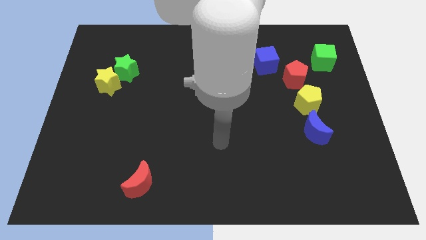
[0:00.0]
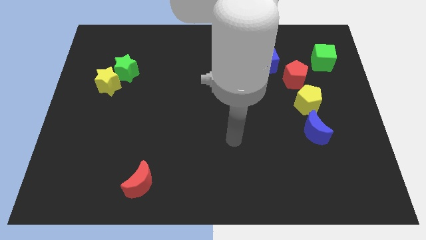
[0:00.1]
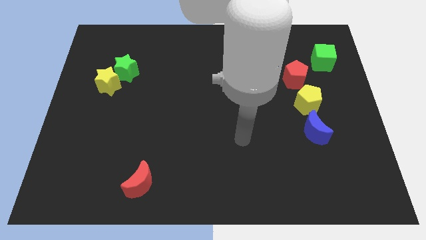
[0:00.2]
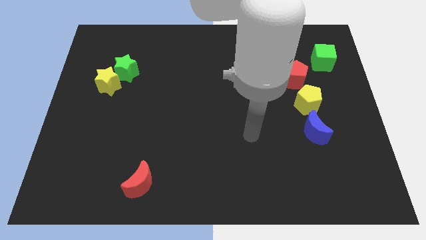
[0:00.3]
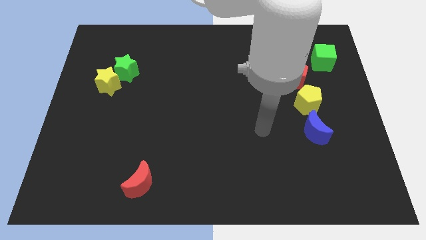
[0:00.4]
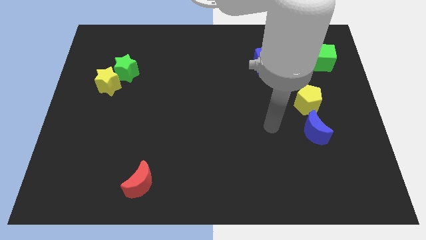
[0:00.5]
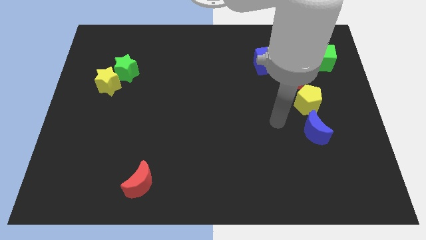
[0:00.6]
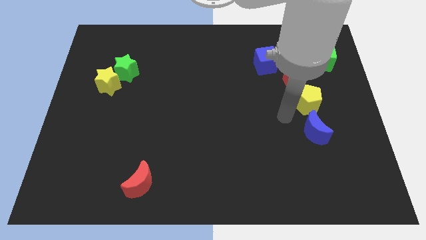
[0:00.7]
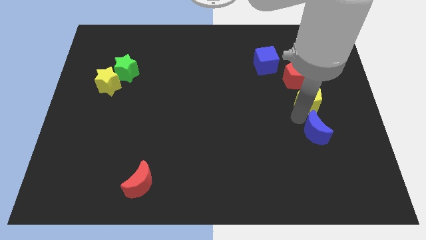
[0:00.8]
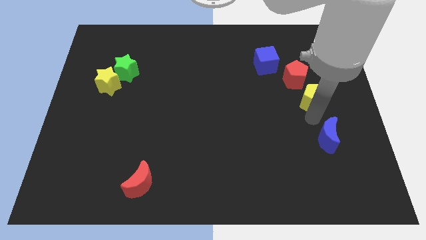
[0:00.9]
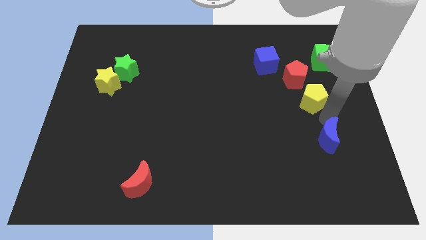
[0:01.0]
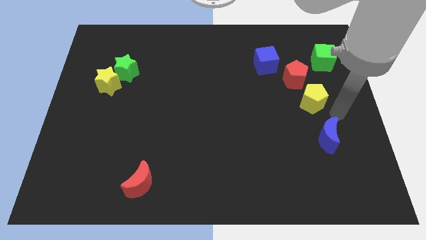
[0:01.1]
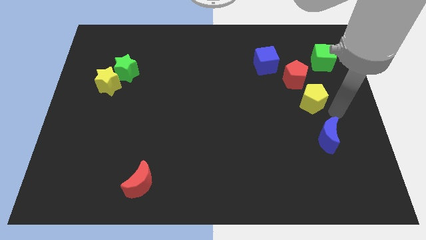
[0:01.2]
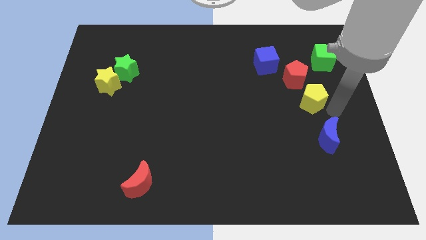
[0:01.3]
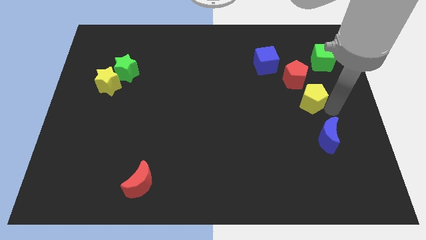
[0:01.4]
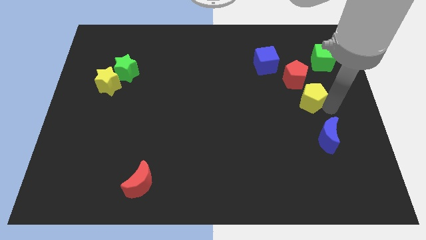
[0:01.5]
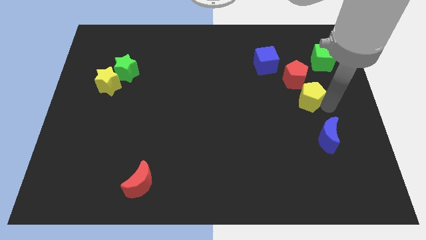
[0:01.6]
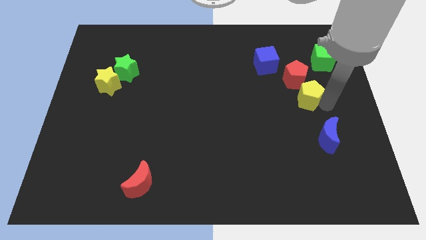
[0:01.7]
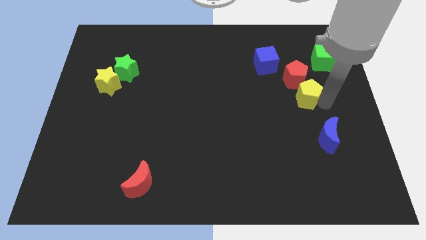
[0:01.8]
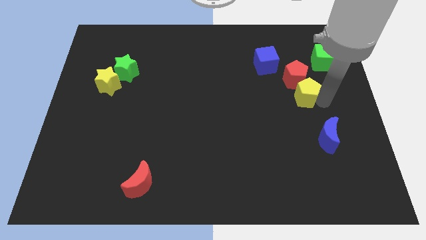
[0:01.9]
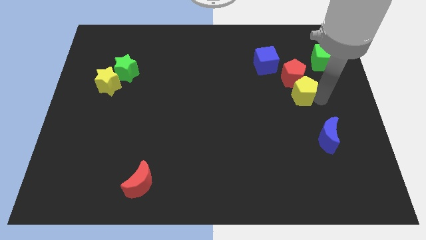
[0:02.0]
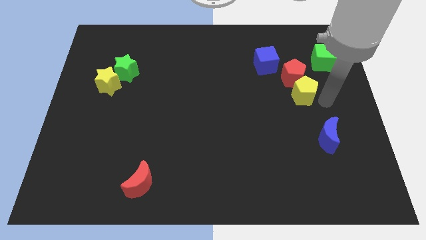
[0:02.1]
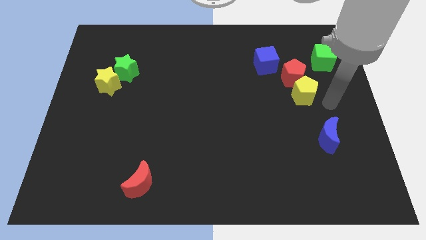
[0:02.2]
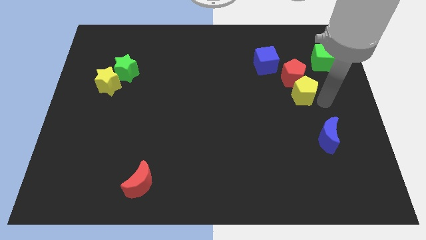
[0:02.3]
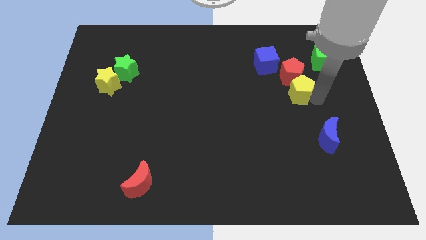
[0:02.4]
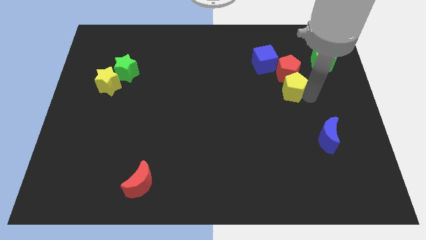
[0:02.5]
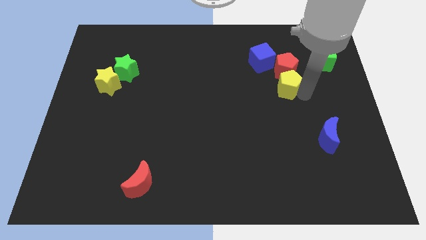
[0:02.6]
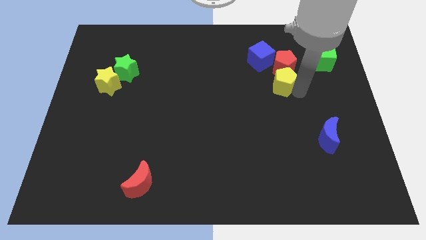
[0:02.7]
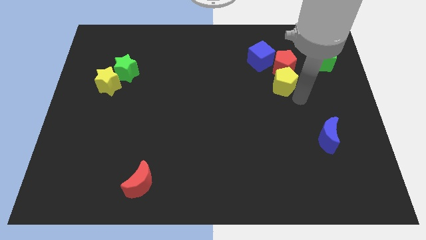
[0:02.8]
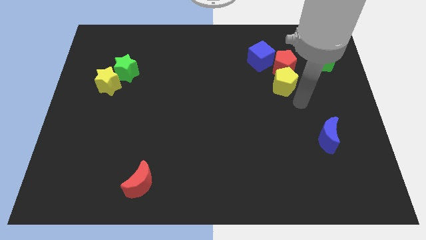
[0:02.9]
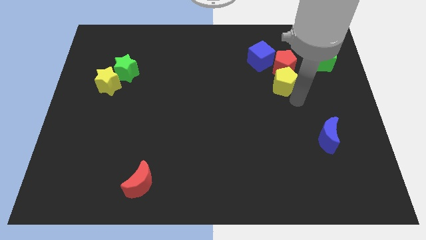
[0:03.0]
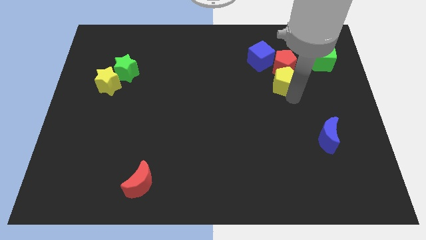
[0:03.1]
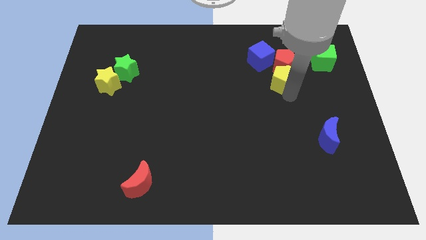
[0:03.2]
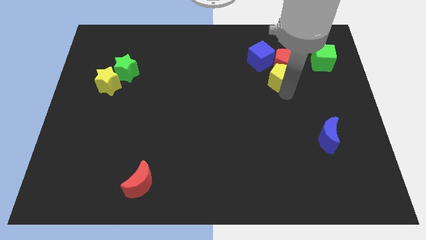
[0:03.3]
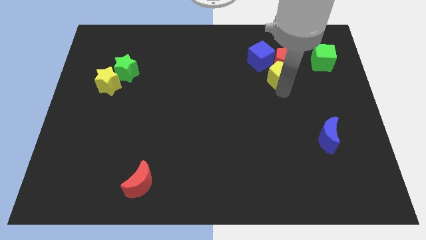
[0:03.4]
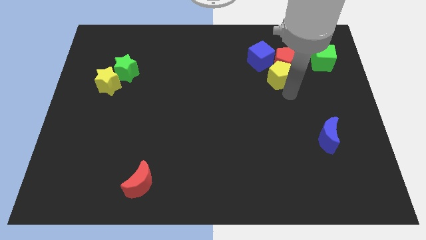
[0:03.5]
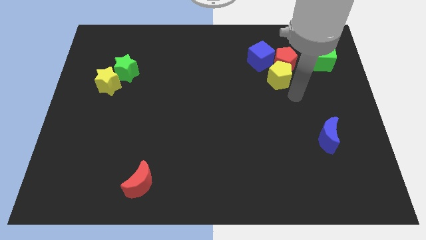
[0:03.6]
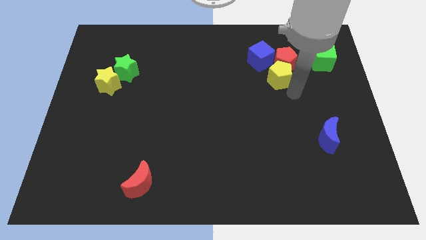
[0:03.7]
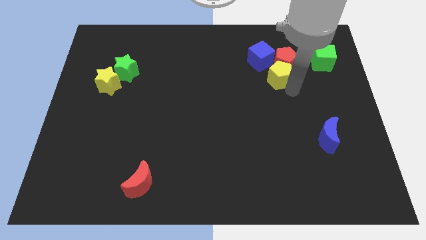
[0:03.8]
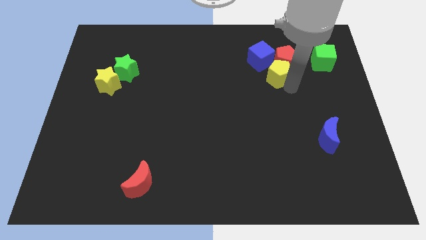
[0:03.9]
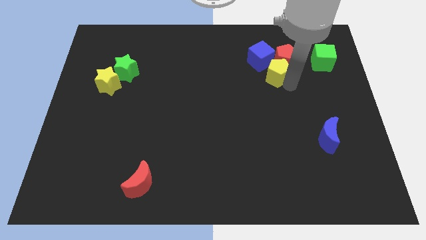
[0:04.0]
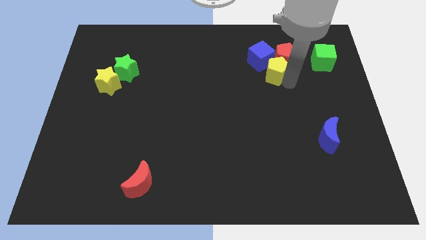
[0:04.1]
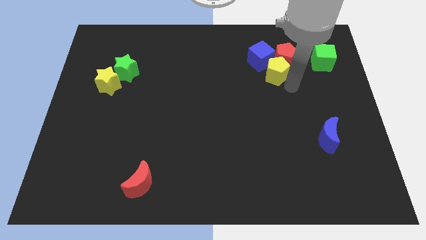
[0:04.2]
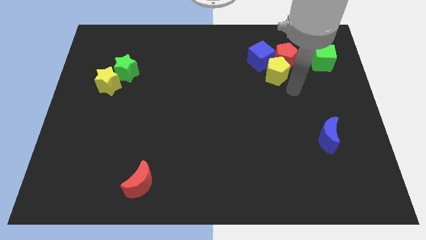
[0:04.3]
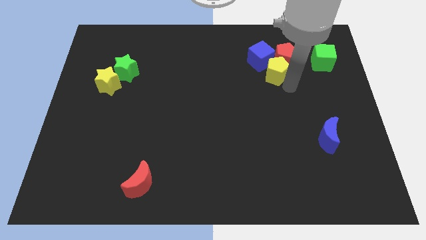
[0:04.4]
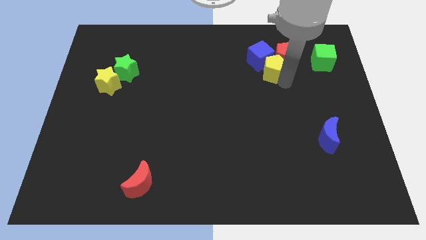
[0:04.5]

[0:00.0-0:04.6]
slide the yellow pentagon next to the blue cube

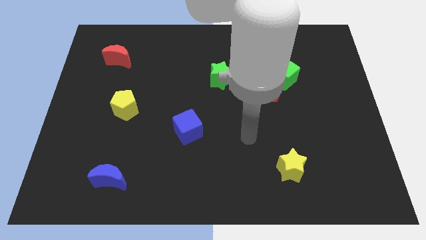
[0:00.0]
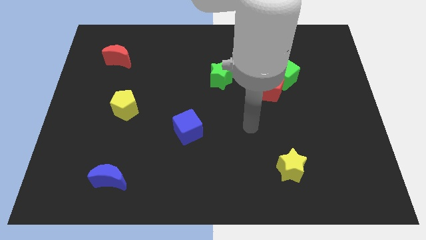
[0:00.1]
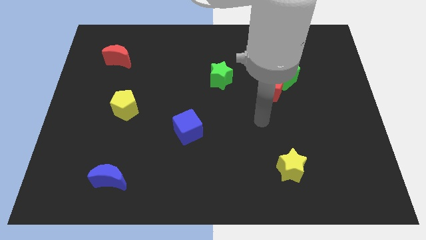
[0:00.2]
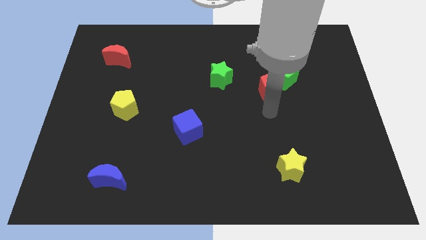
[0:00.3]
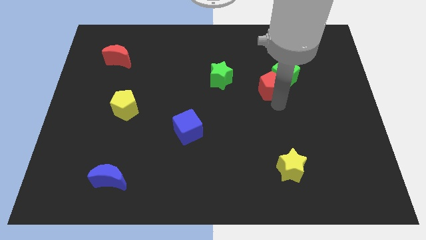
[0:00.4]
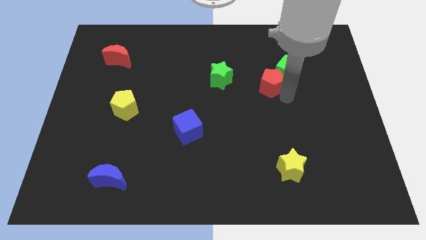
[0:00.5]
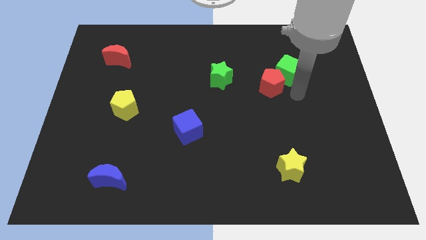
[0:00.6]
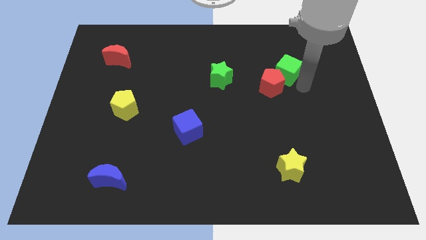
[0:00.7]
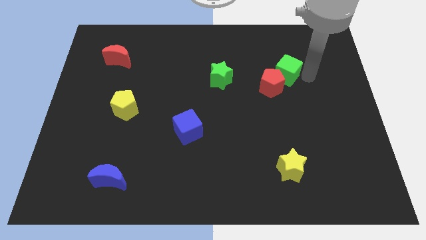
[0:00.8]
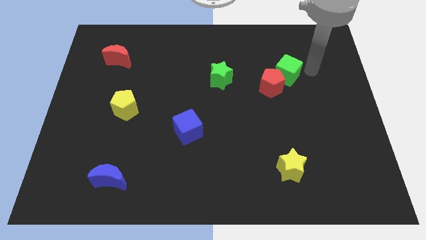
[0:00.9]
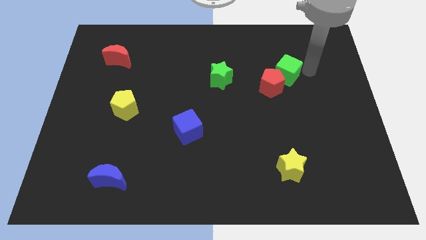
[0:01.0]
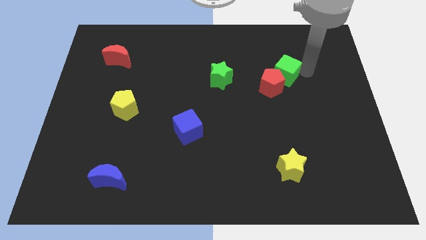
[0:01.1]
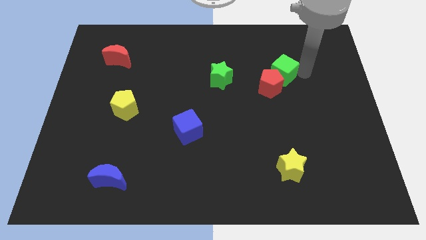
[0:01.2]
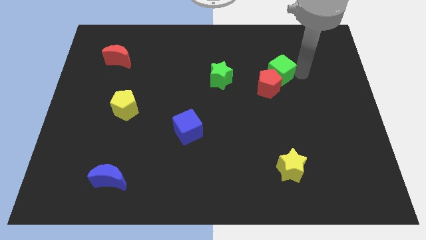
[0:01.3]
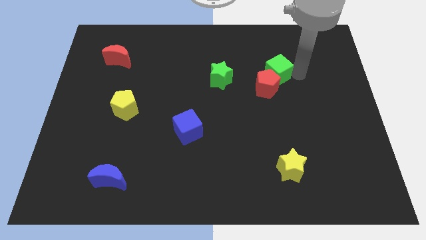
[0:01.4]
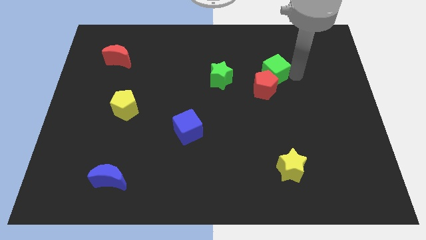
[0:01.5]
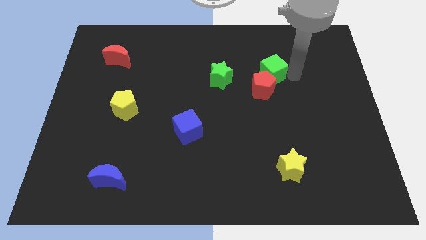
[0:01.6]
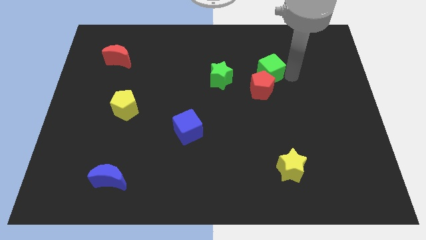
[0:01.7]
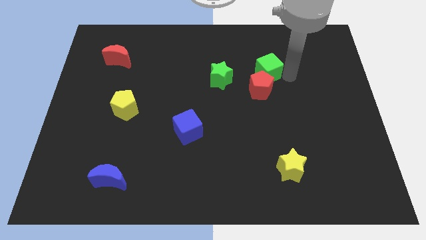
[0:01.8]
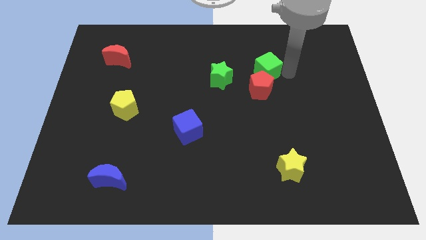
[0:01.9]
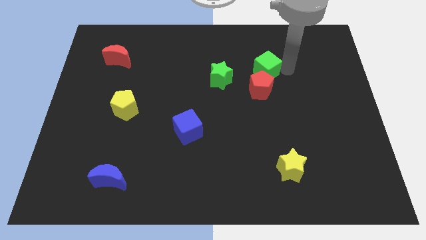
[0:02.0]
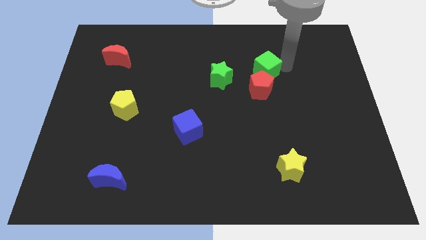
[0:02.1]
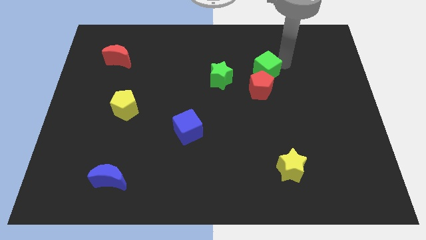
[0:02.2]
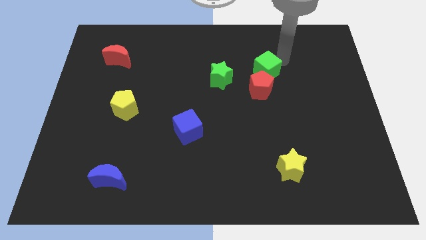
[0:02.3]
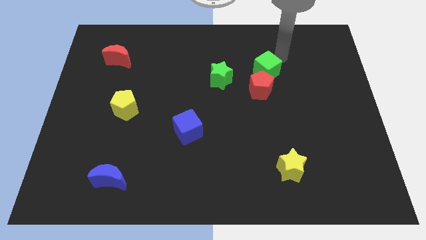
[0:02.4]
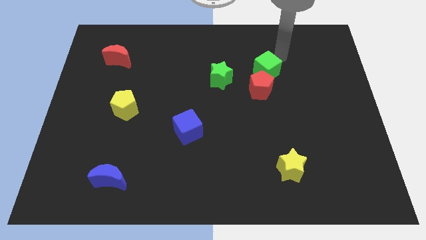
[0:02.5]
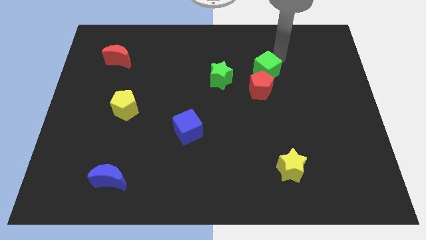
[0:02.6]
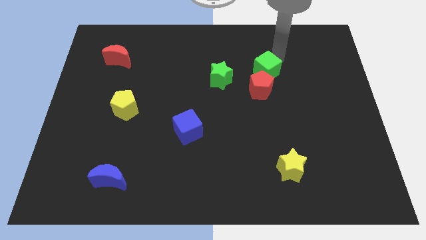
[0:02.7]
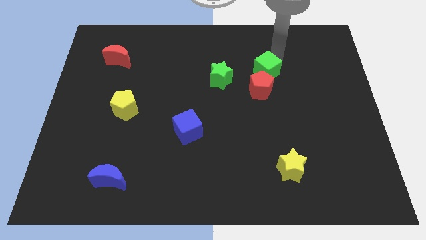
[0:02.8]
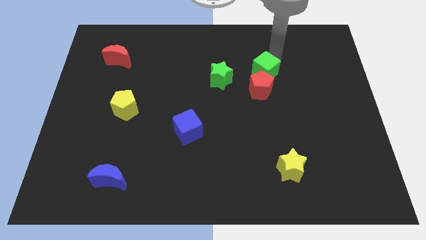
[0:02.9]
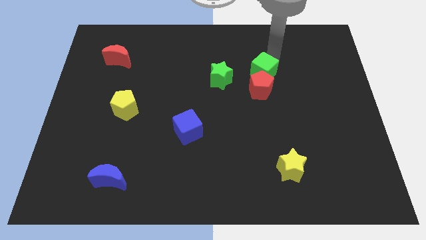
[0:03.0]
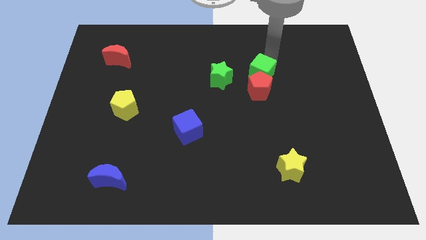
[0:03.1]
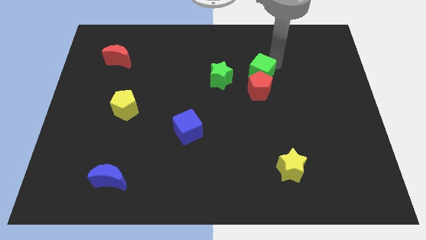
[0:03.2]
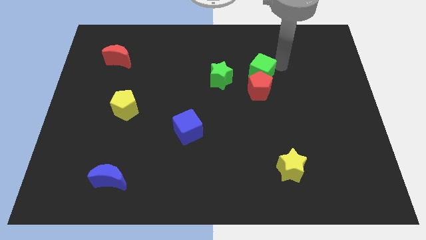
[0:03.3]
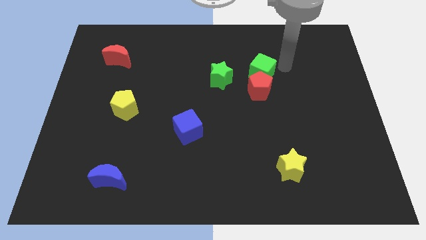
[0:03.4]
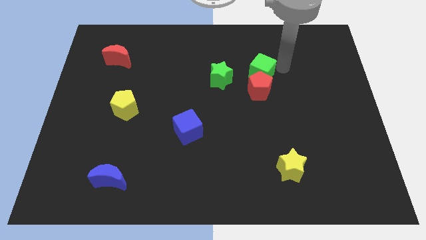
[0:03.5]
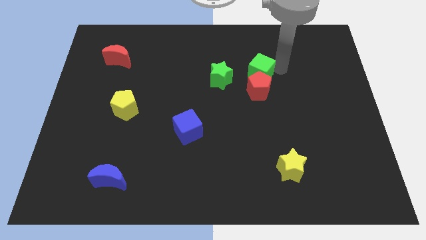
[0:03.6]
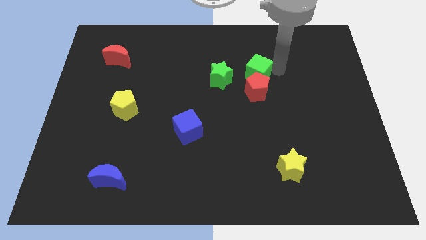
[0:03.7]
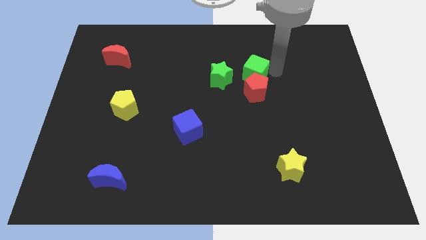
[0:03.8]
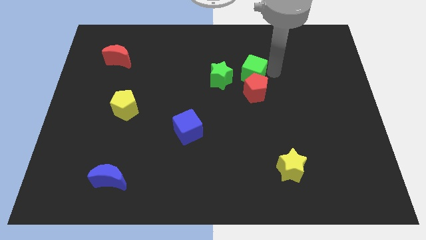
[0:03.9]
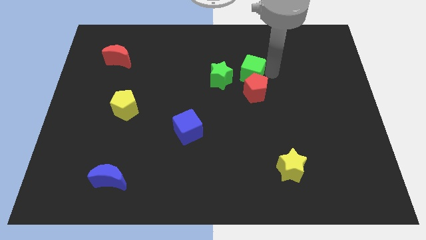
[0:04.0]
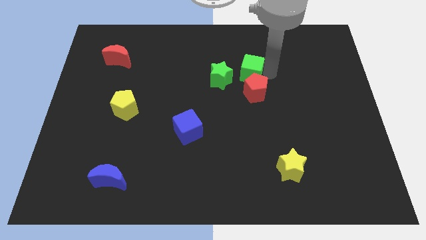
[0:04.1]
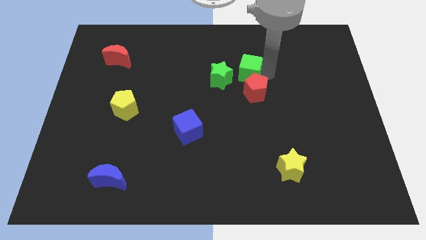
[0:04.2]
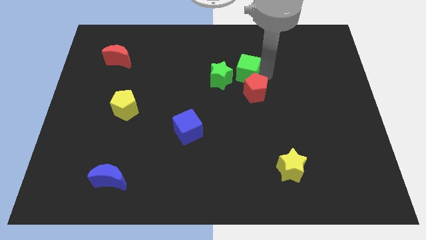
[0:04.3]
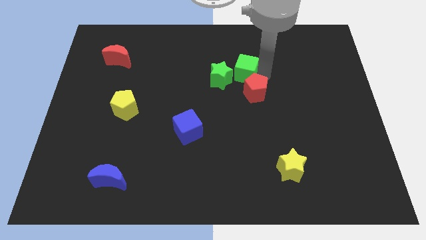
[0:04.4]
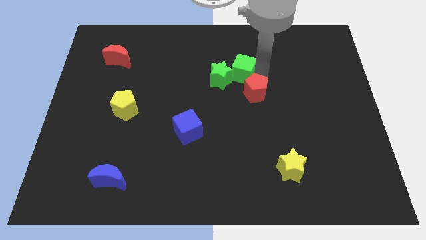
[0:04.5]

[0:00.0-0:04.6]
slide the green cube towards the green star
